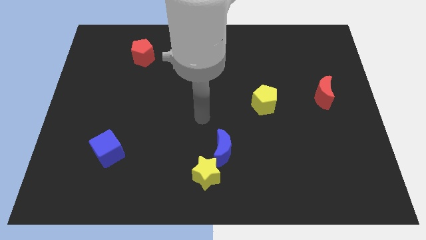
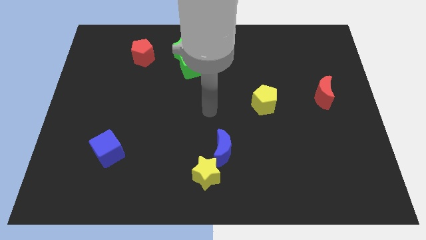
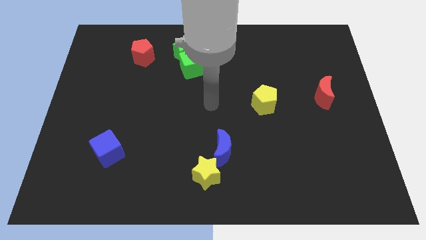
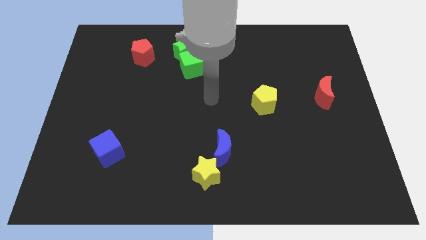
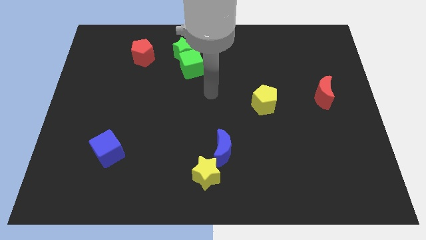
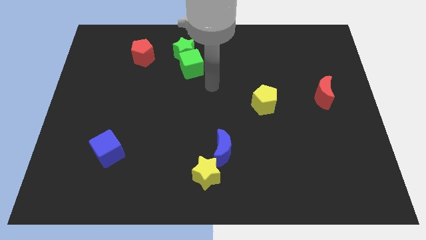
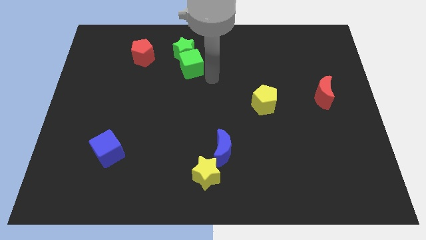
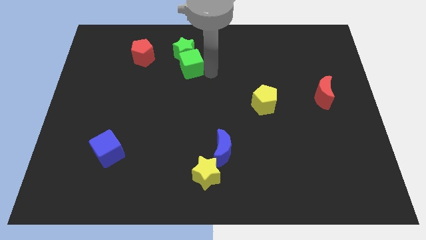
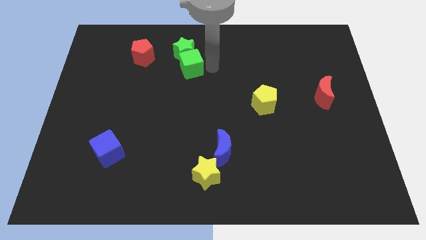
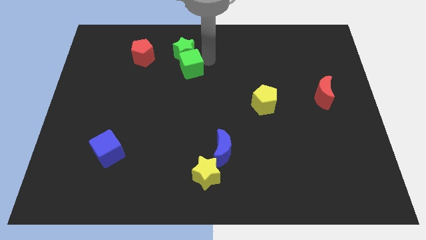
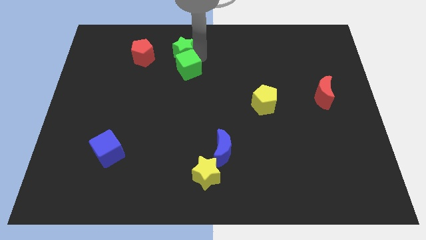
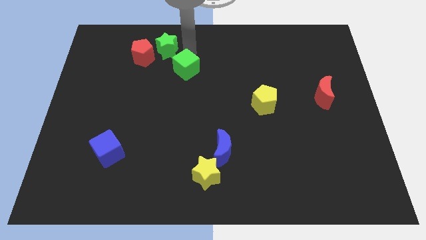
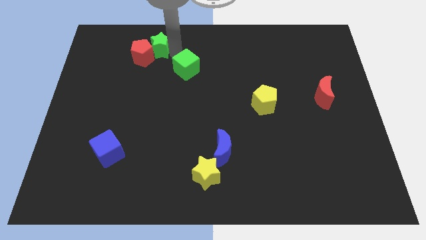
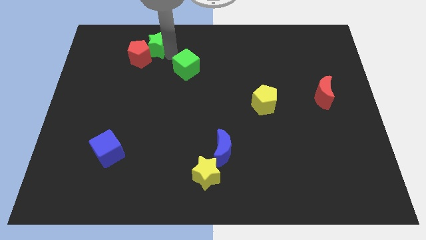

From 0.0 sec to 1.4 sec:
move the green cube away from the green star

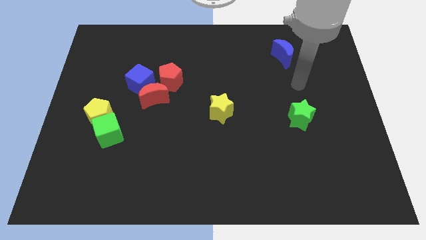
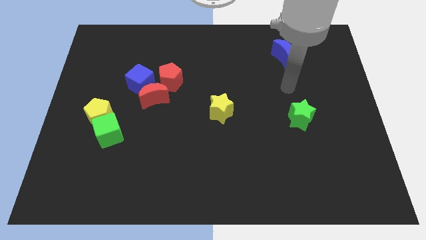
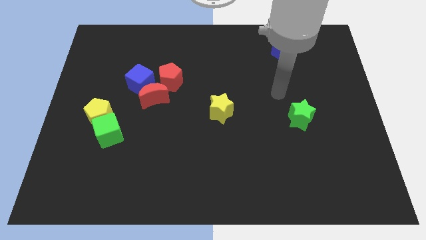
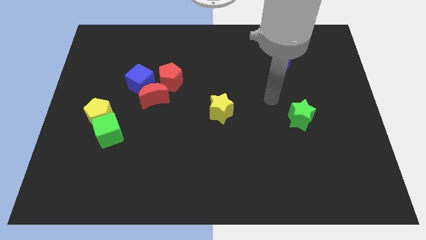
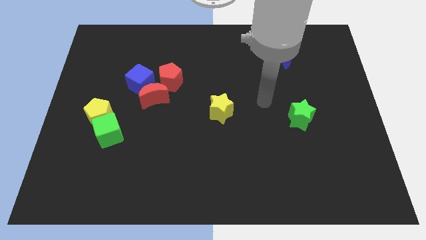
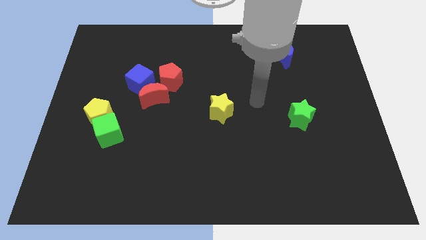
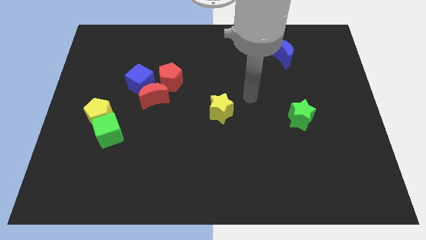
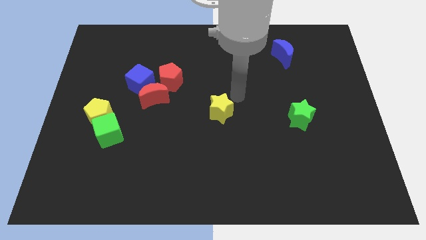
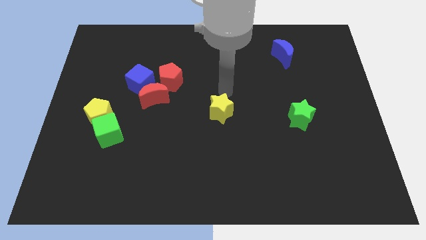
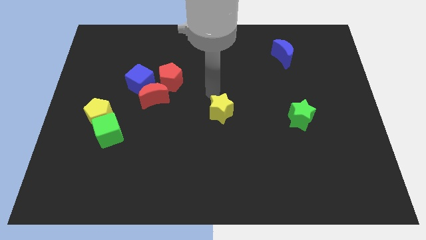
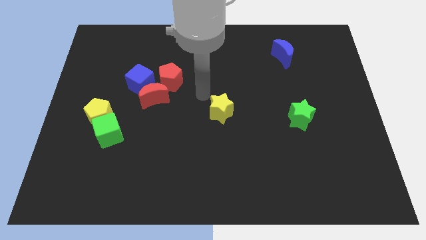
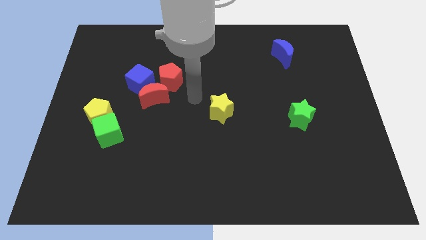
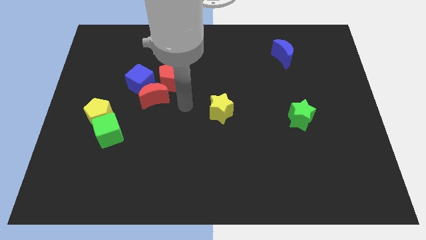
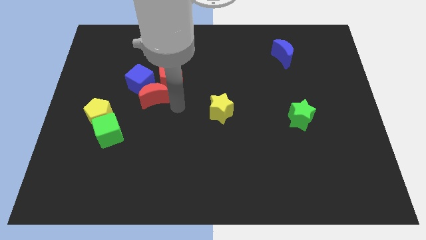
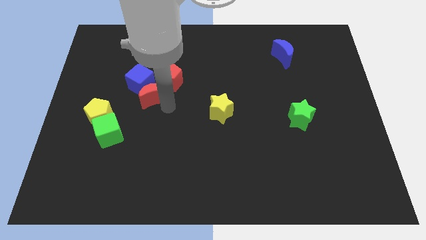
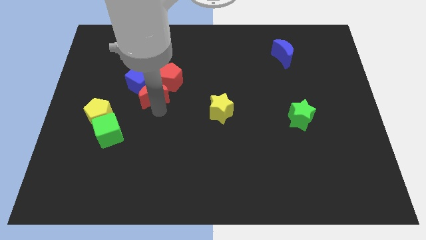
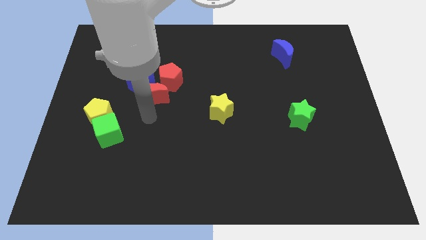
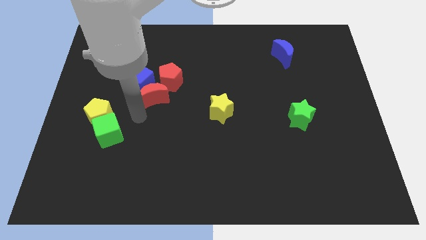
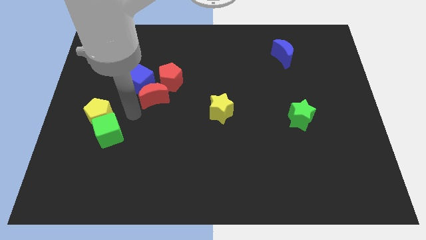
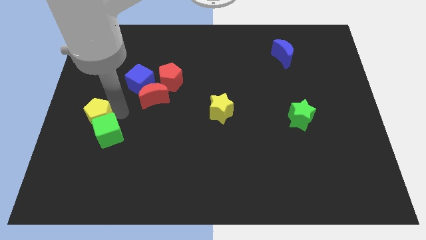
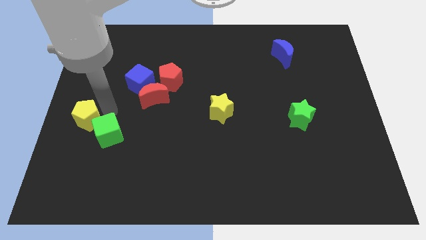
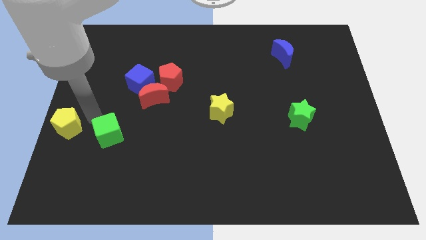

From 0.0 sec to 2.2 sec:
move the green cube away from the yellow pentagon

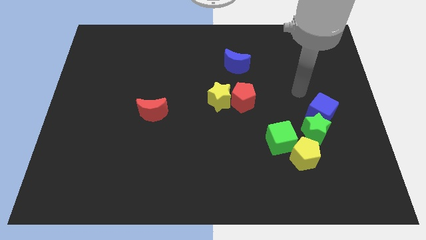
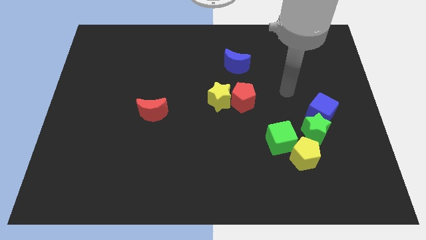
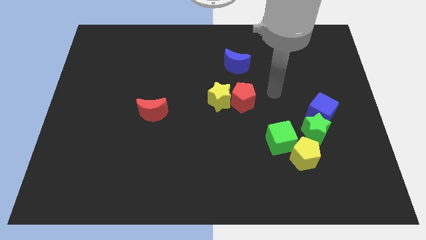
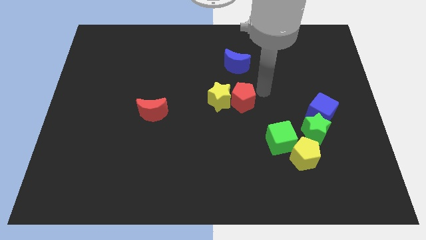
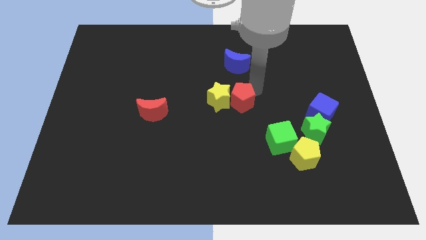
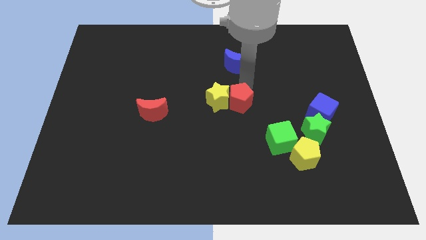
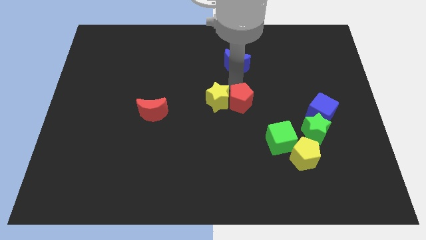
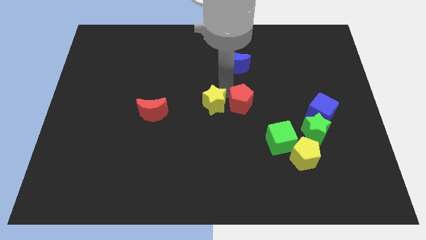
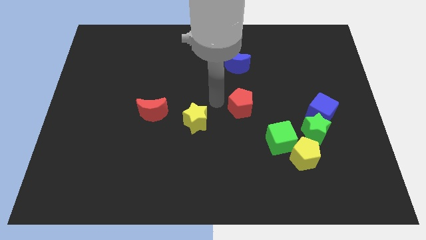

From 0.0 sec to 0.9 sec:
pull the red pentagon apart from the yellow star

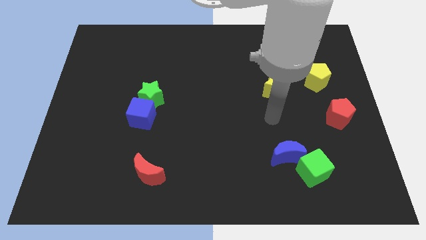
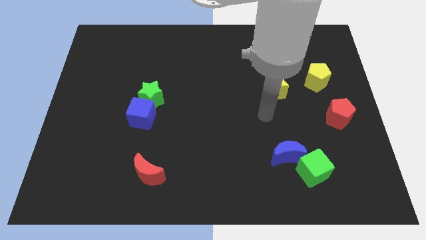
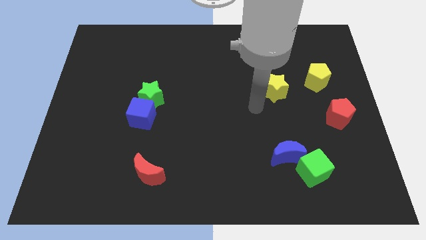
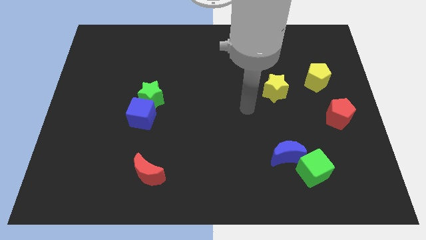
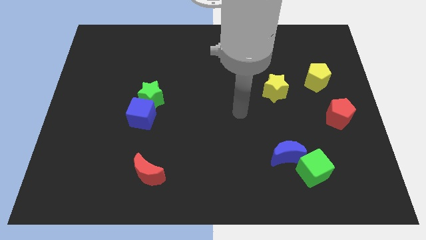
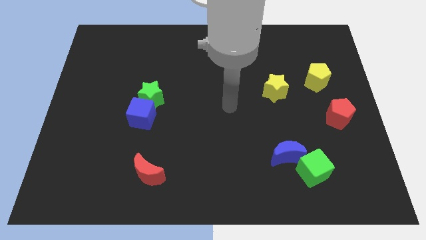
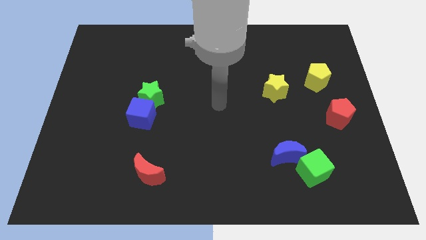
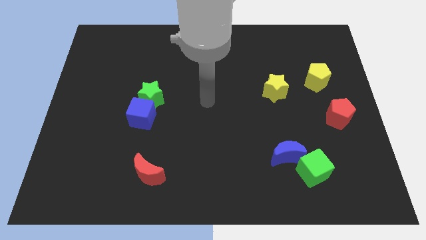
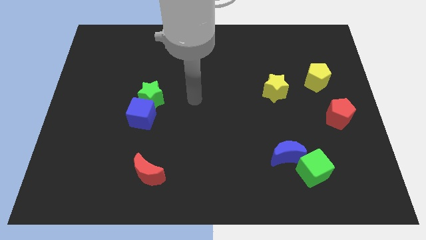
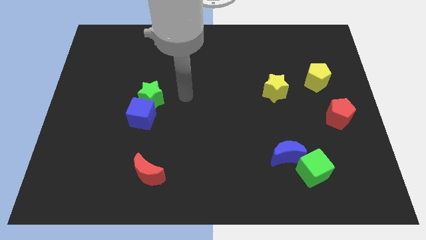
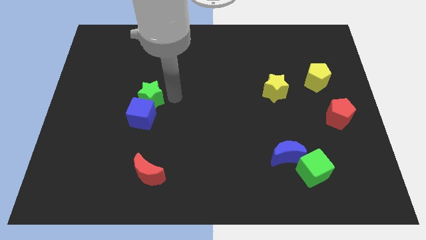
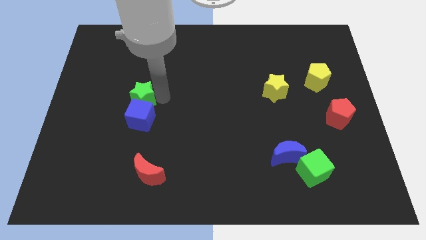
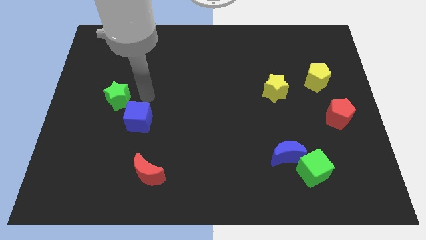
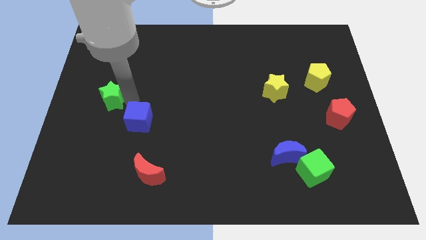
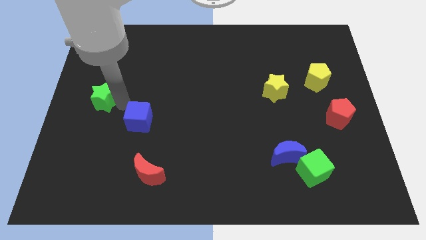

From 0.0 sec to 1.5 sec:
separate the blue cube from the green star

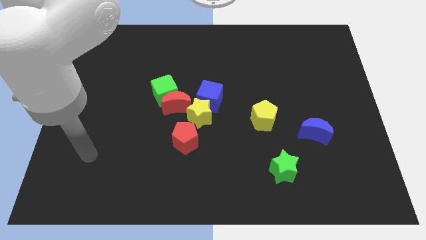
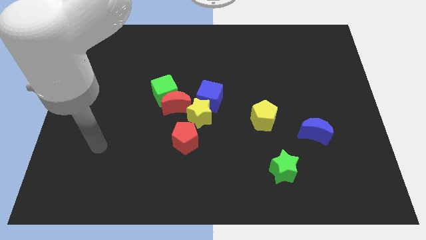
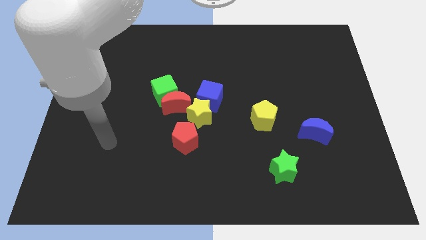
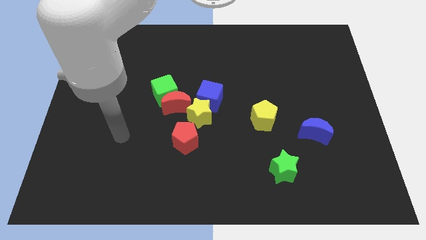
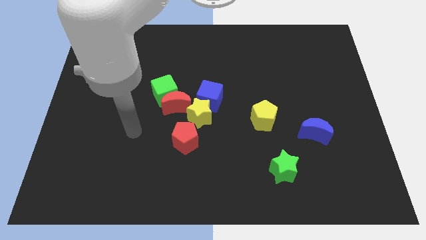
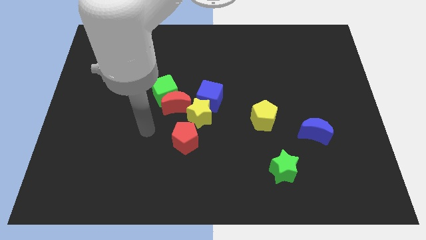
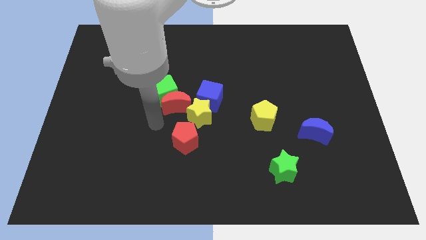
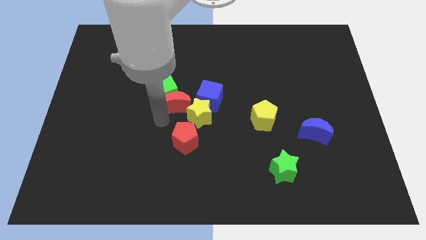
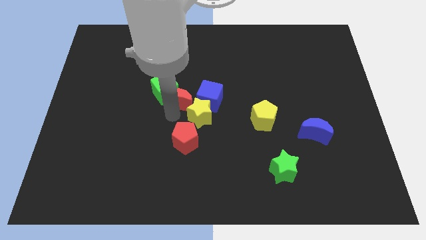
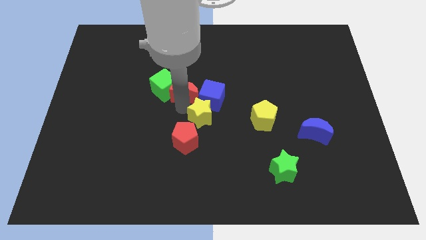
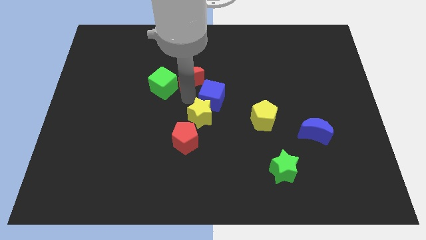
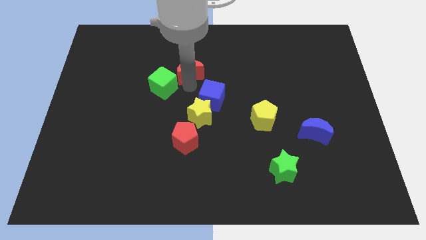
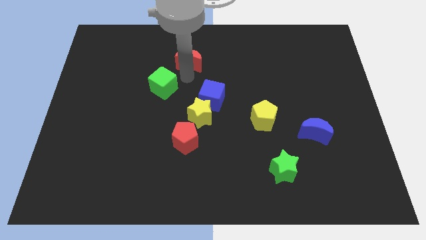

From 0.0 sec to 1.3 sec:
separate the green cube from the red moon

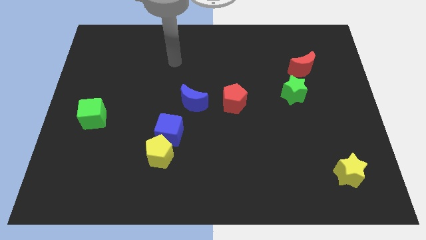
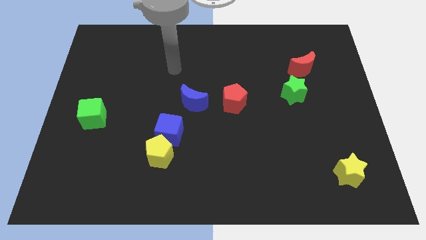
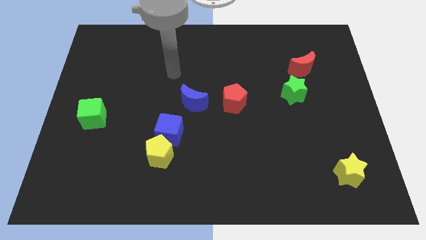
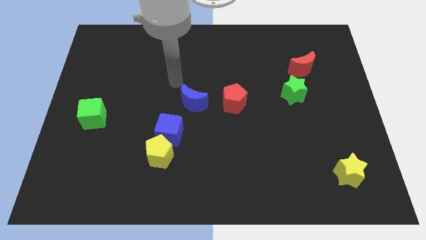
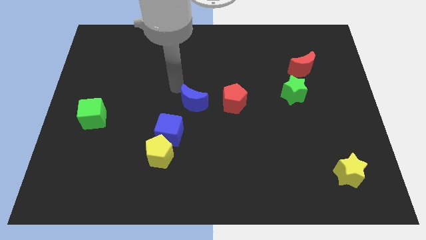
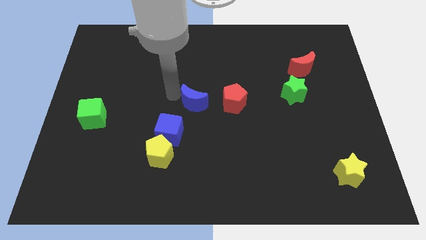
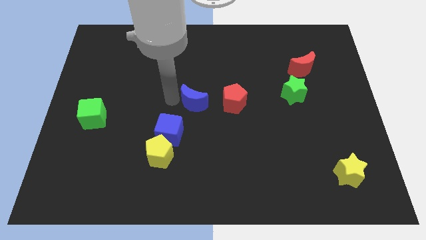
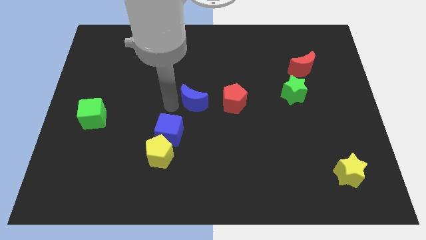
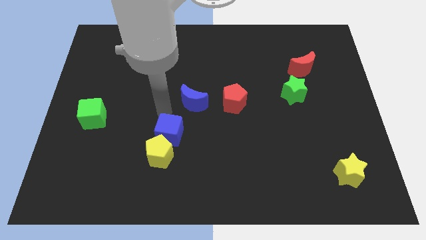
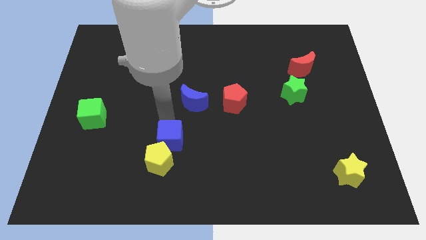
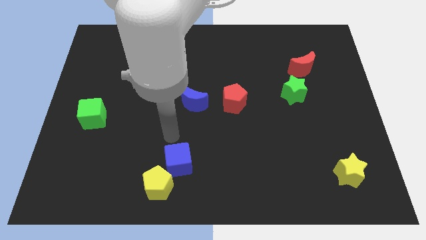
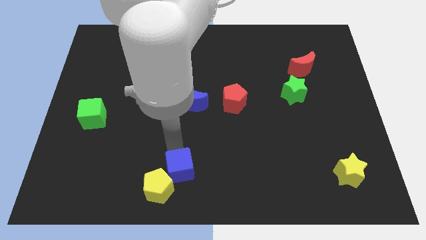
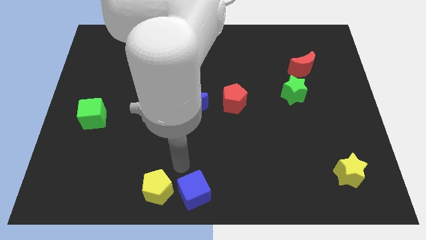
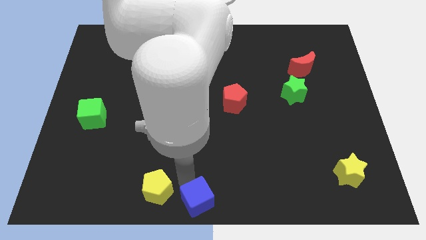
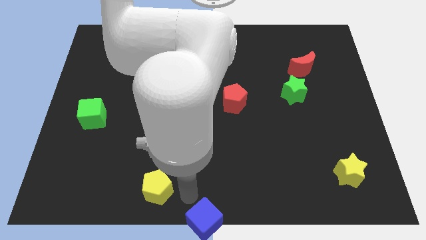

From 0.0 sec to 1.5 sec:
separate the yellow pentagon from the blue cube

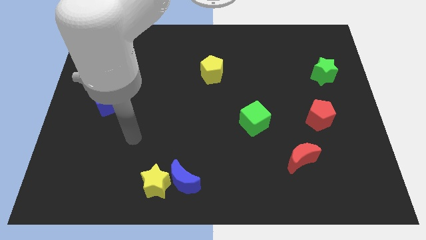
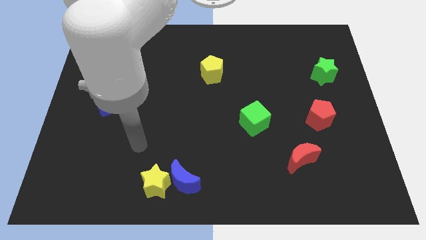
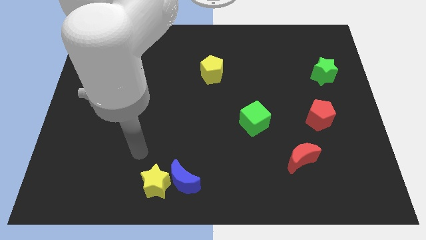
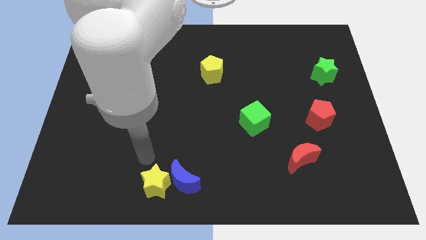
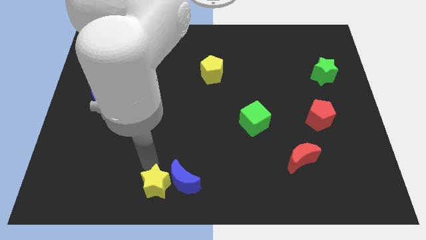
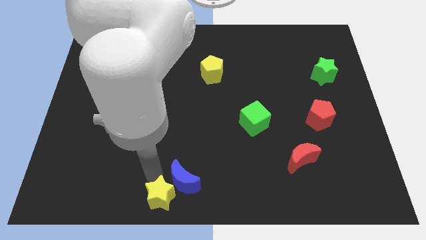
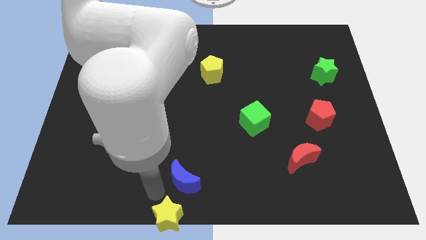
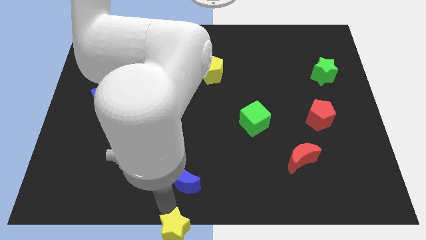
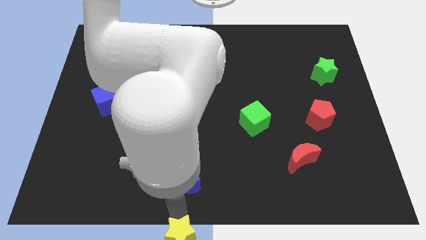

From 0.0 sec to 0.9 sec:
pull the blue moon apart from the yellow star
